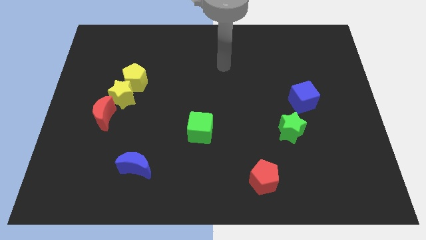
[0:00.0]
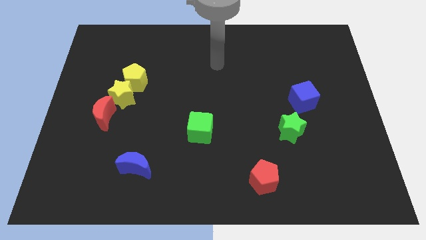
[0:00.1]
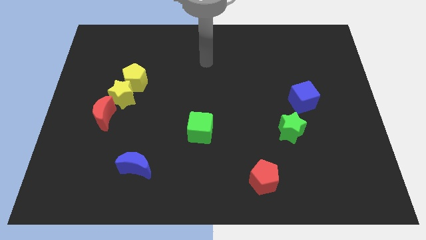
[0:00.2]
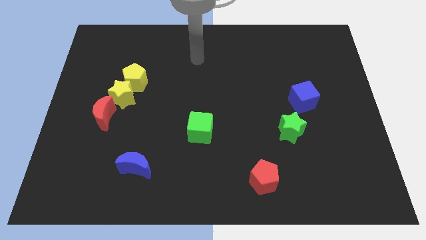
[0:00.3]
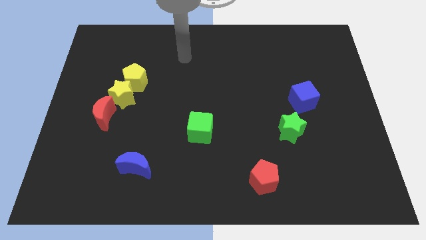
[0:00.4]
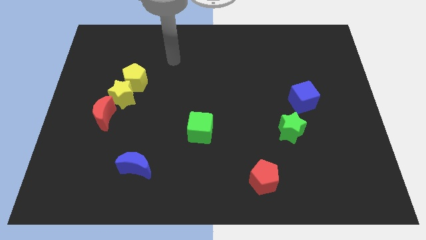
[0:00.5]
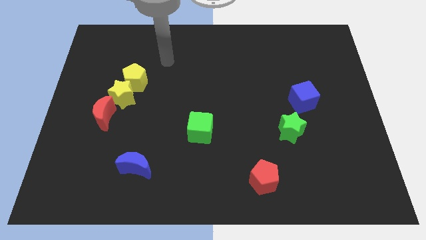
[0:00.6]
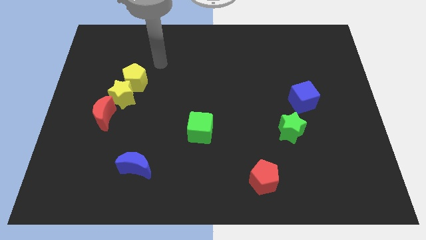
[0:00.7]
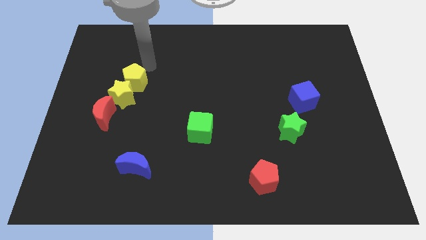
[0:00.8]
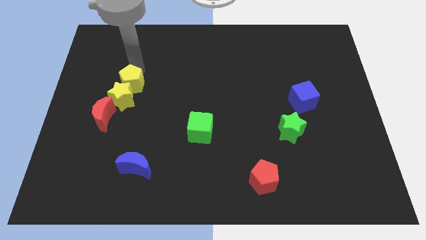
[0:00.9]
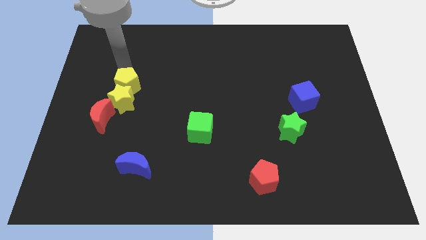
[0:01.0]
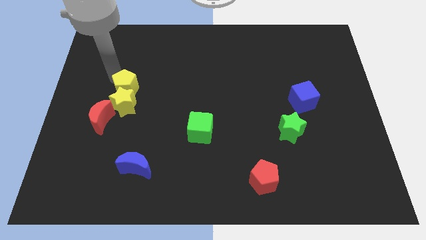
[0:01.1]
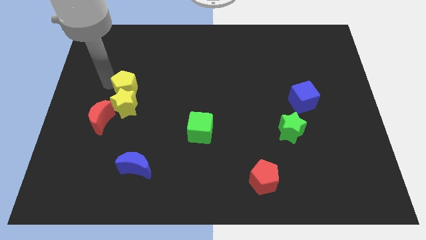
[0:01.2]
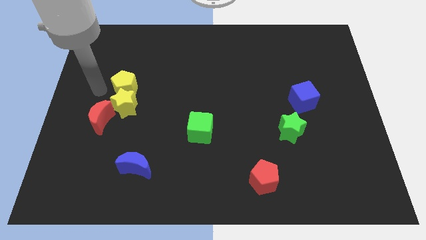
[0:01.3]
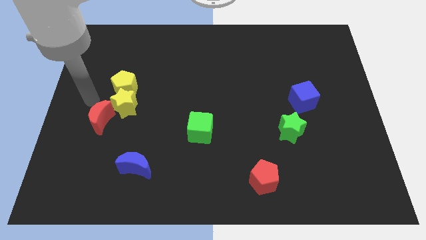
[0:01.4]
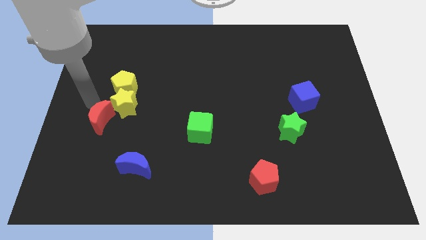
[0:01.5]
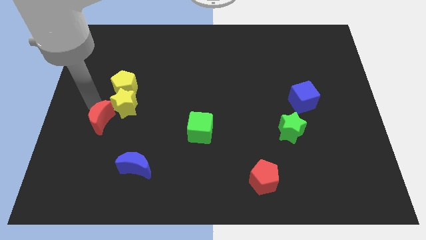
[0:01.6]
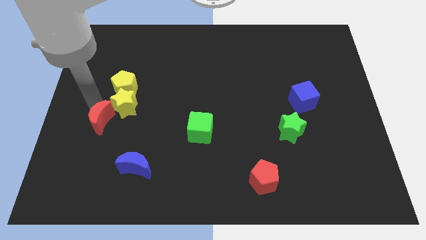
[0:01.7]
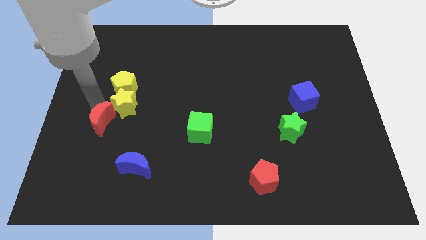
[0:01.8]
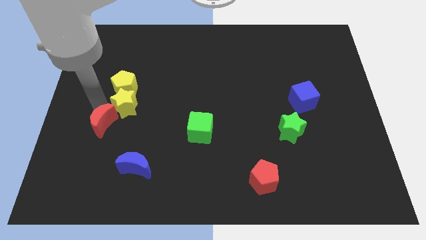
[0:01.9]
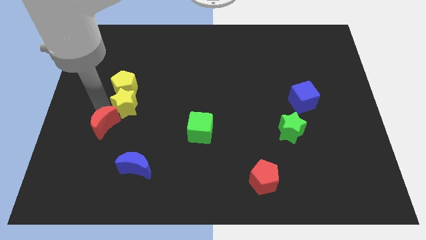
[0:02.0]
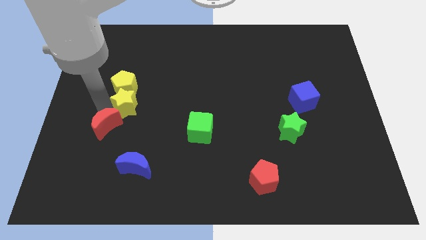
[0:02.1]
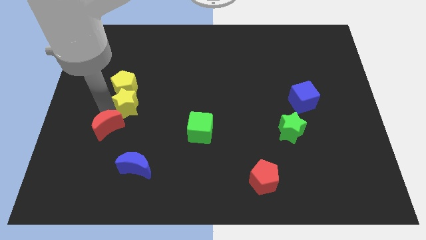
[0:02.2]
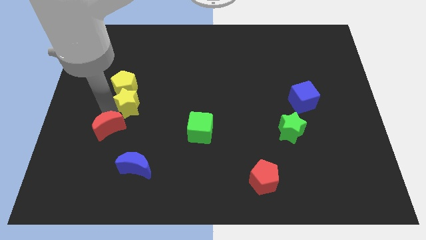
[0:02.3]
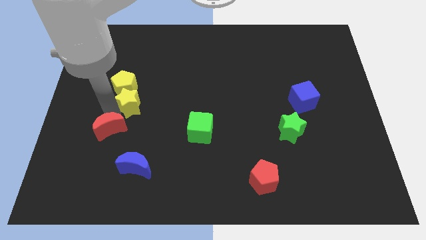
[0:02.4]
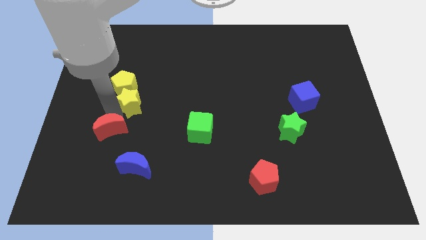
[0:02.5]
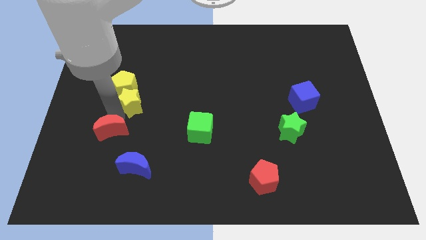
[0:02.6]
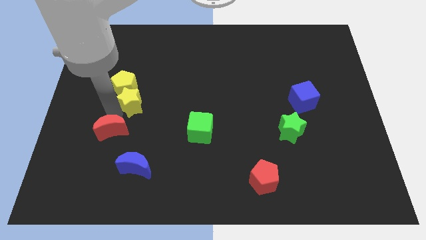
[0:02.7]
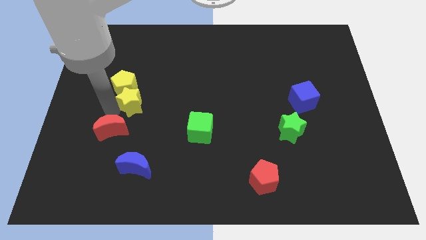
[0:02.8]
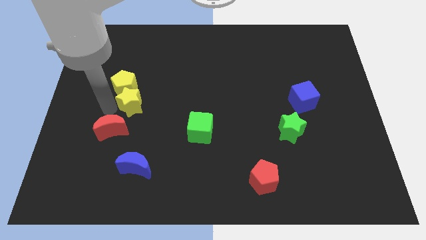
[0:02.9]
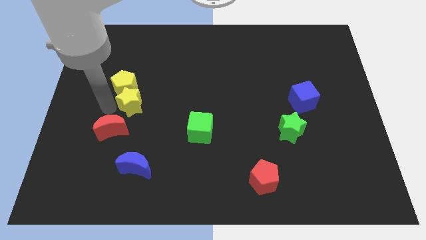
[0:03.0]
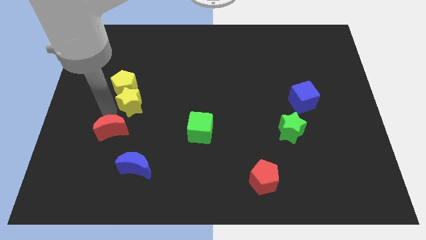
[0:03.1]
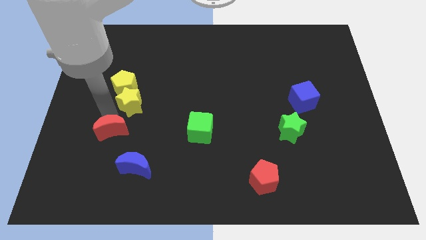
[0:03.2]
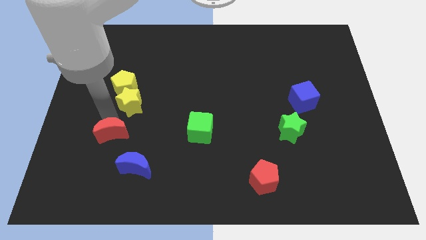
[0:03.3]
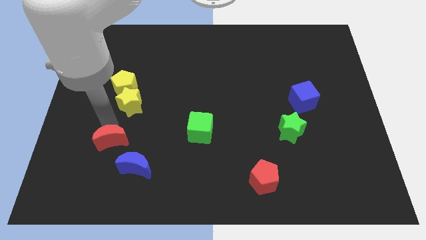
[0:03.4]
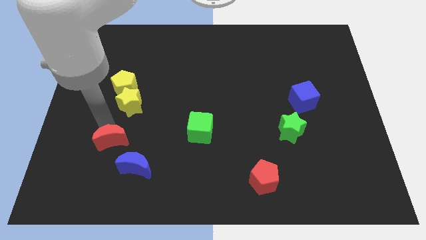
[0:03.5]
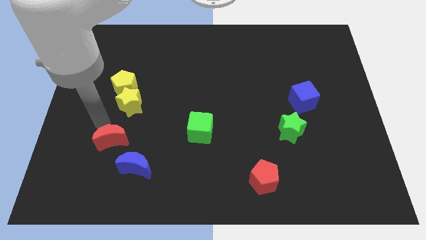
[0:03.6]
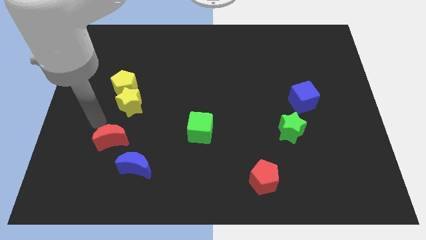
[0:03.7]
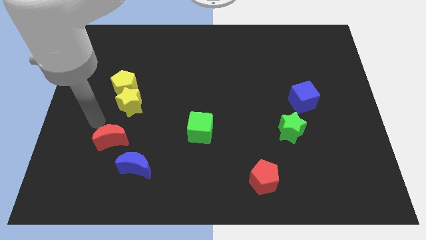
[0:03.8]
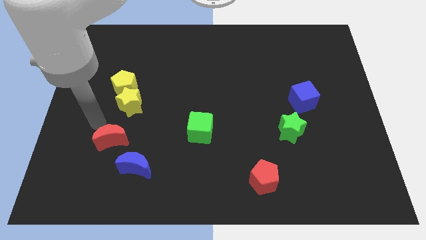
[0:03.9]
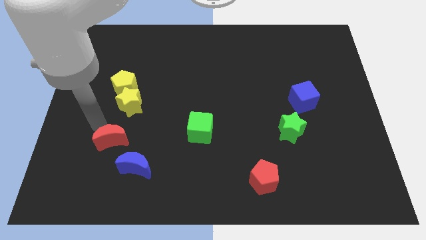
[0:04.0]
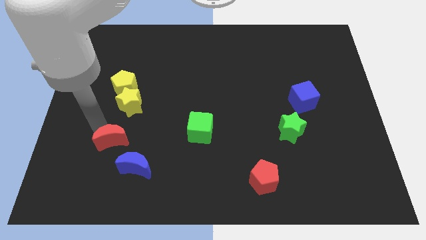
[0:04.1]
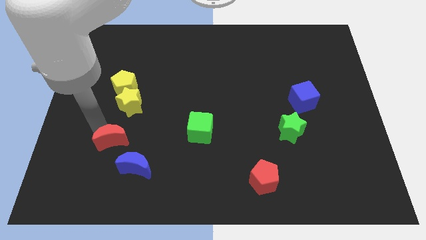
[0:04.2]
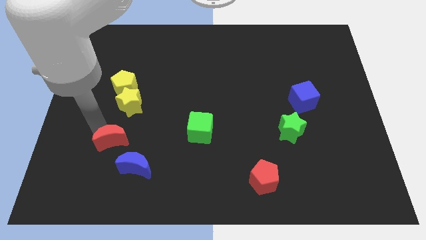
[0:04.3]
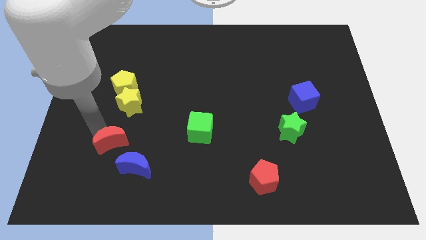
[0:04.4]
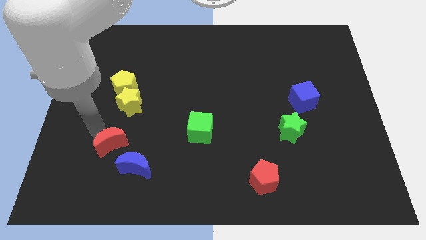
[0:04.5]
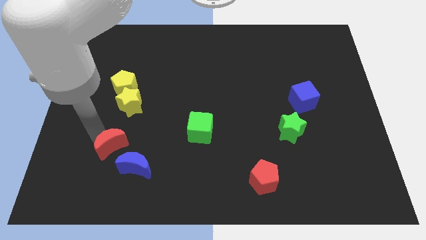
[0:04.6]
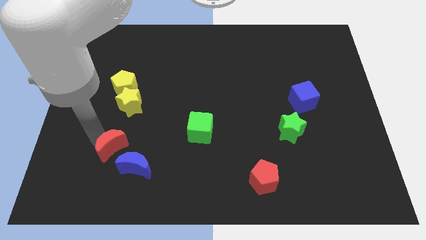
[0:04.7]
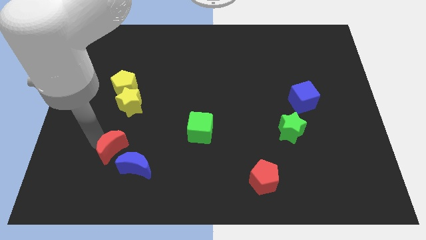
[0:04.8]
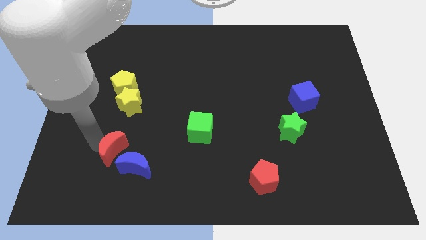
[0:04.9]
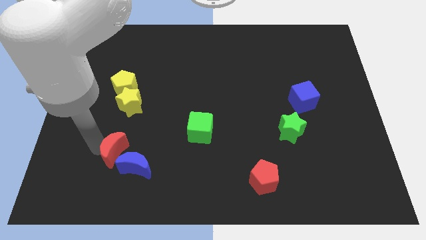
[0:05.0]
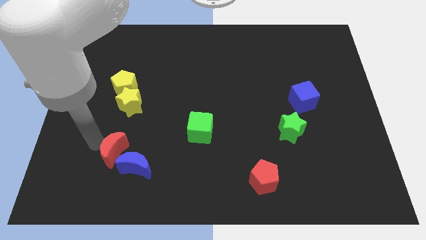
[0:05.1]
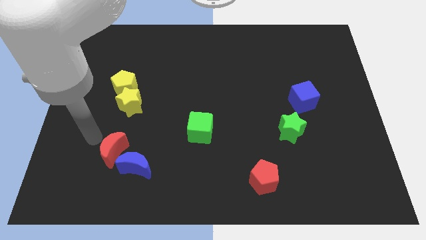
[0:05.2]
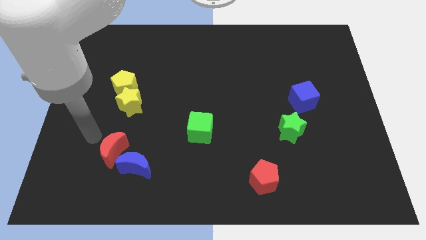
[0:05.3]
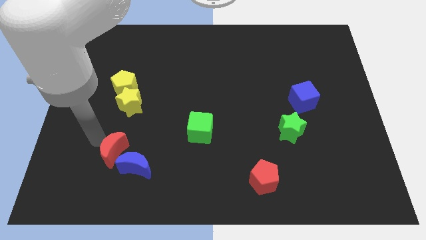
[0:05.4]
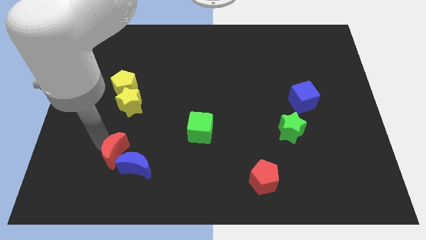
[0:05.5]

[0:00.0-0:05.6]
slide the red moon towards the blue moon

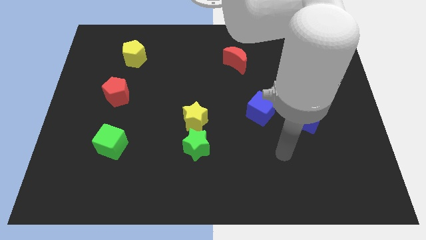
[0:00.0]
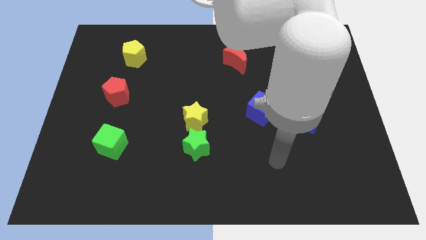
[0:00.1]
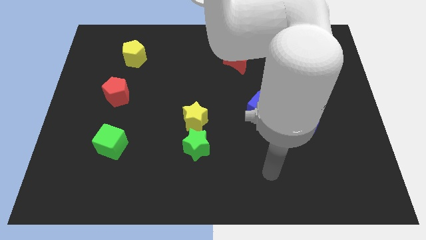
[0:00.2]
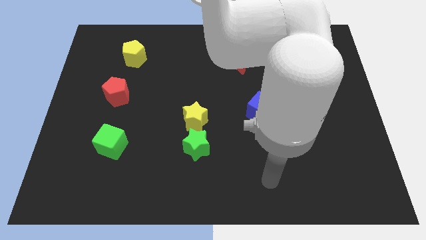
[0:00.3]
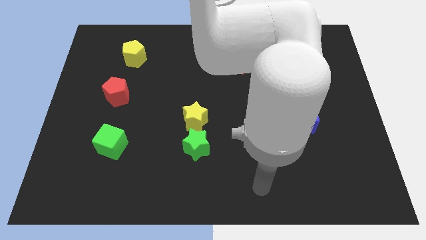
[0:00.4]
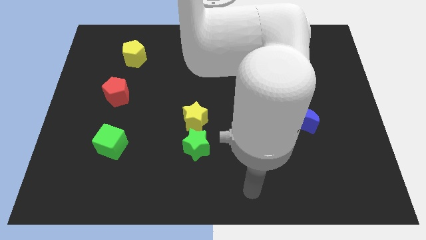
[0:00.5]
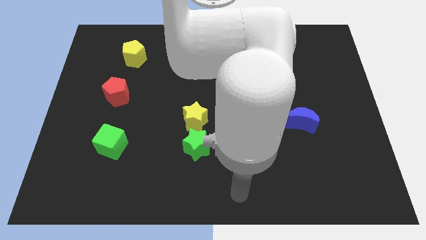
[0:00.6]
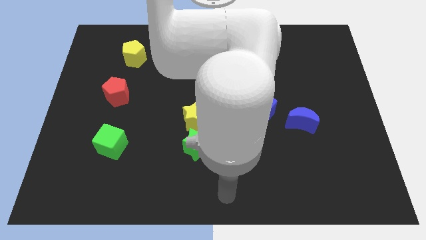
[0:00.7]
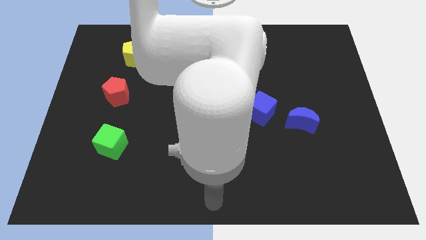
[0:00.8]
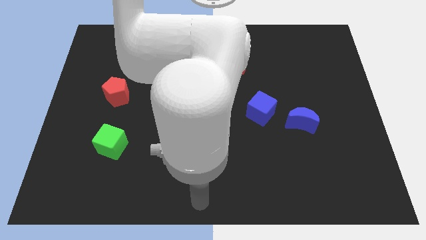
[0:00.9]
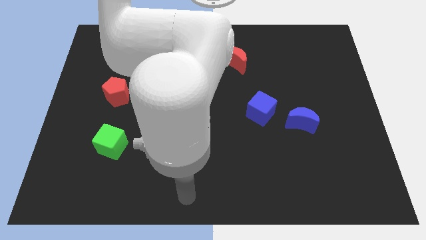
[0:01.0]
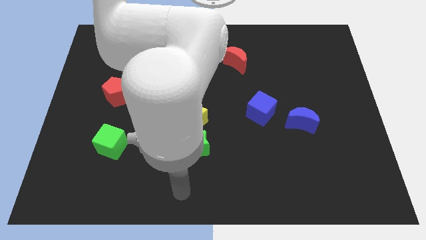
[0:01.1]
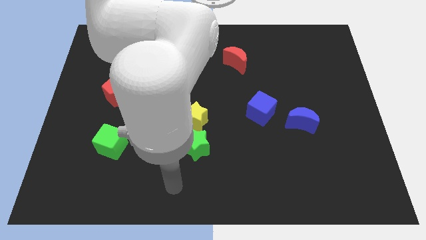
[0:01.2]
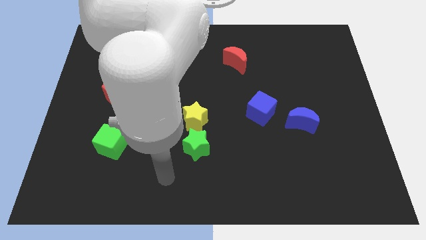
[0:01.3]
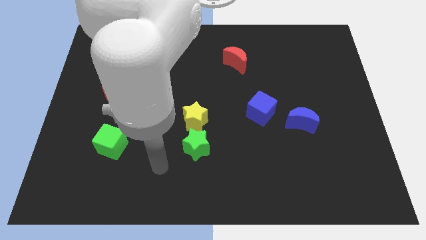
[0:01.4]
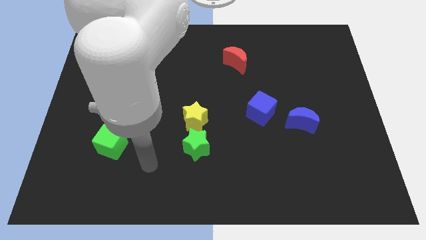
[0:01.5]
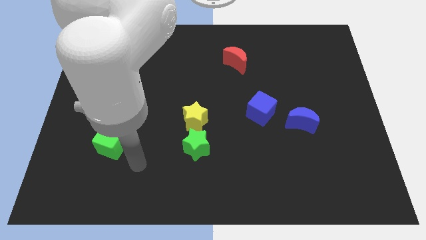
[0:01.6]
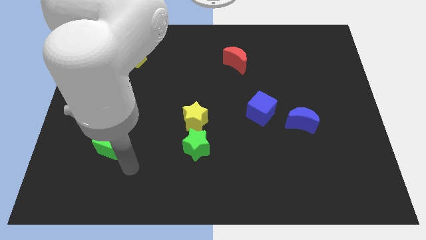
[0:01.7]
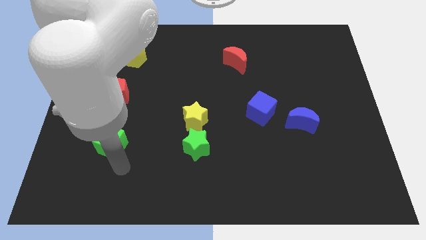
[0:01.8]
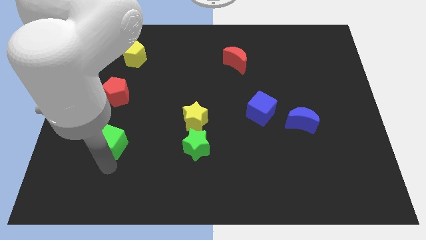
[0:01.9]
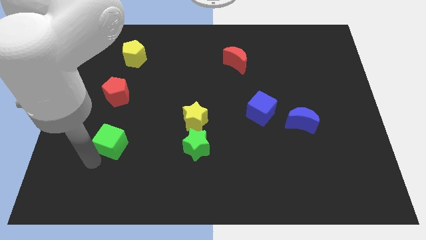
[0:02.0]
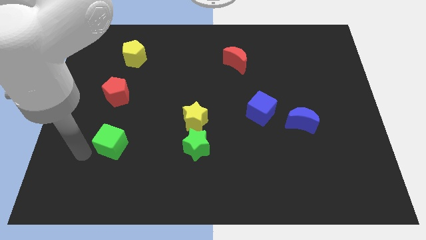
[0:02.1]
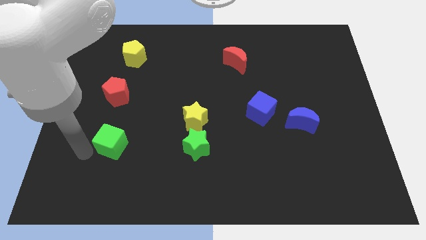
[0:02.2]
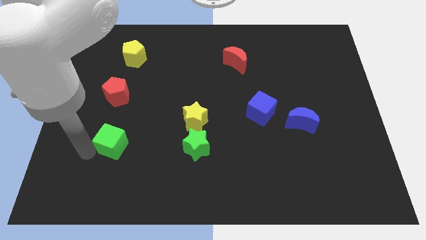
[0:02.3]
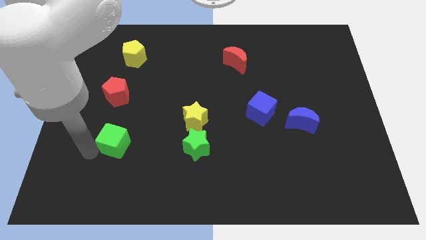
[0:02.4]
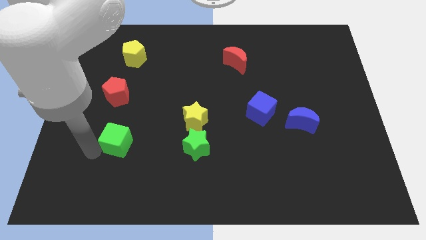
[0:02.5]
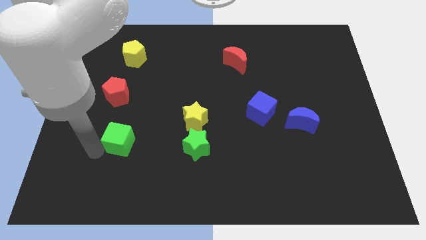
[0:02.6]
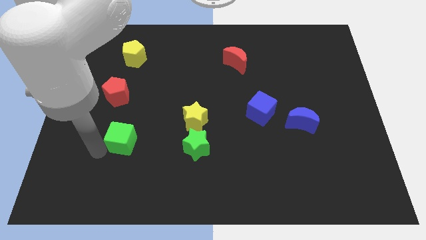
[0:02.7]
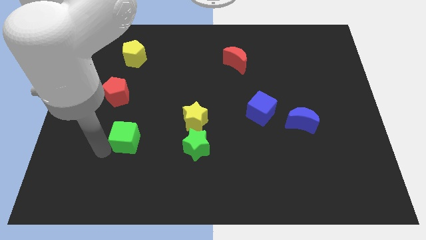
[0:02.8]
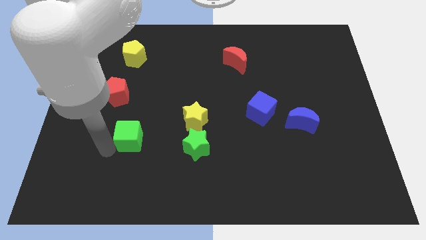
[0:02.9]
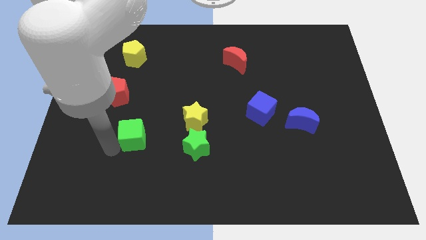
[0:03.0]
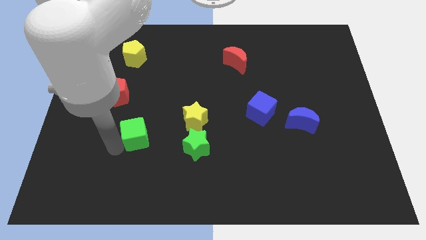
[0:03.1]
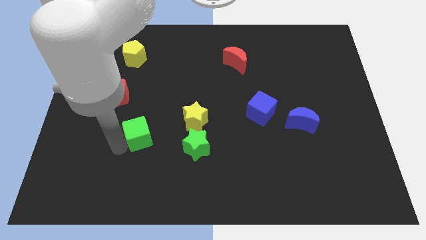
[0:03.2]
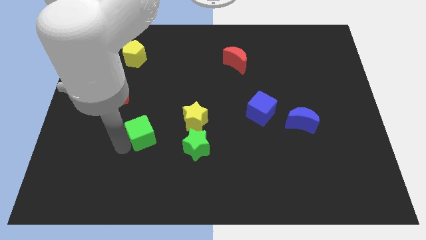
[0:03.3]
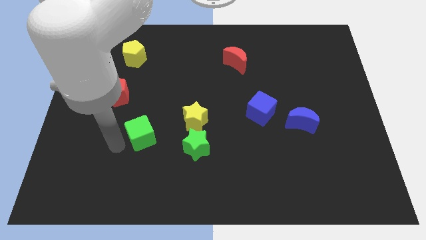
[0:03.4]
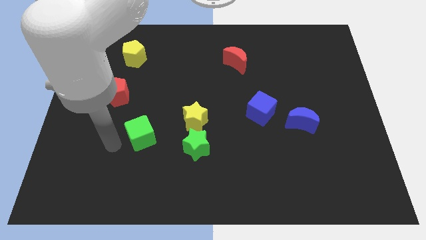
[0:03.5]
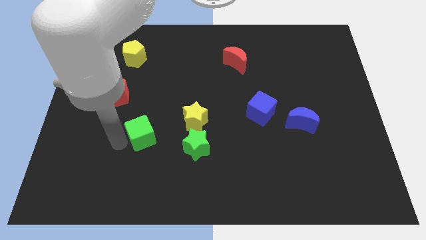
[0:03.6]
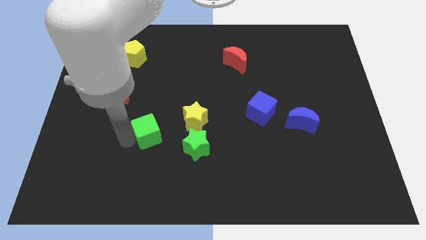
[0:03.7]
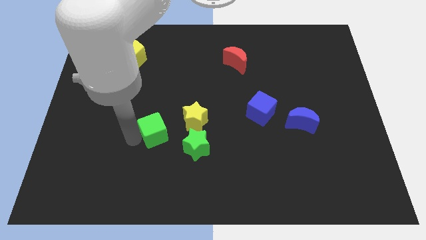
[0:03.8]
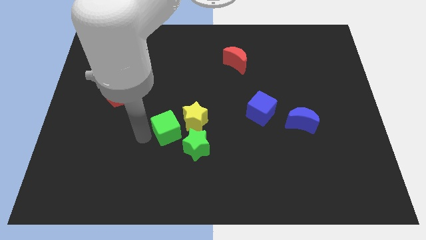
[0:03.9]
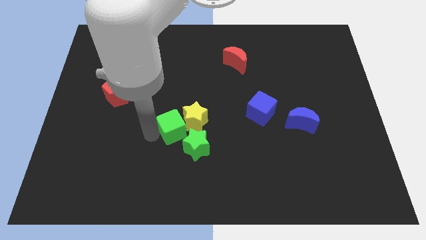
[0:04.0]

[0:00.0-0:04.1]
push the green cube to the yellow star
